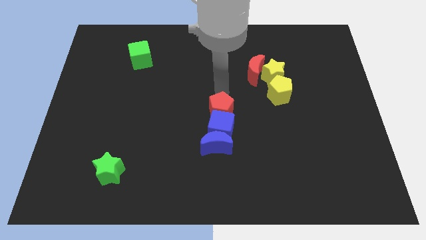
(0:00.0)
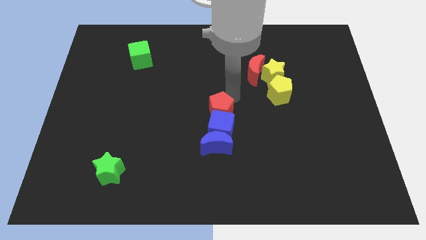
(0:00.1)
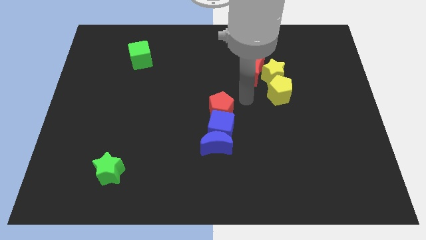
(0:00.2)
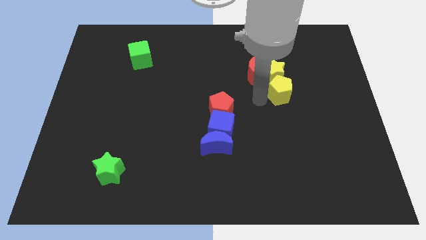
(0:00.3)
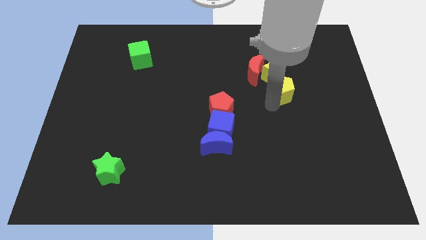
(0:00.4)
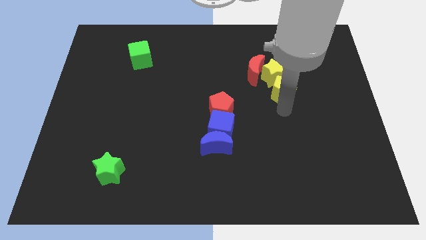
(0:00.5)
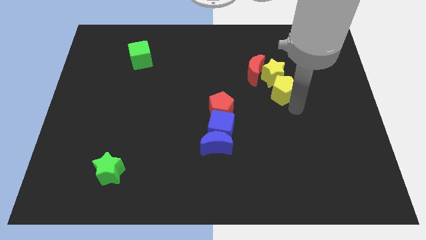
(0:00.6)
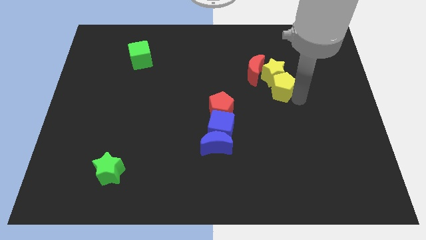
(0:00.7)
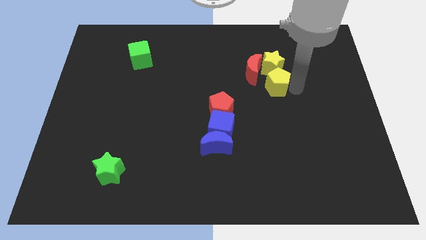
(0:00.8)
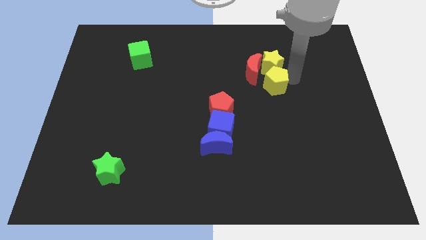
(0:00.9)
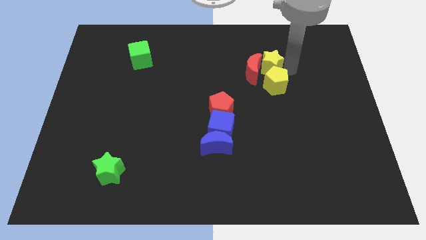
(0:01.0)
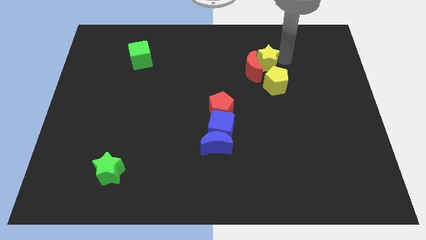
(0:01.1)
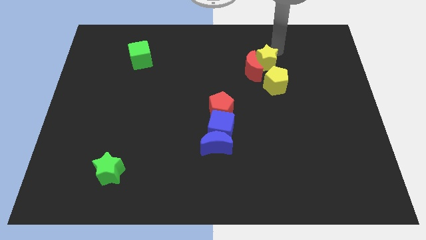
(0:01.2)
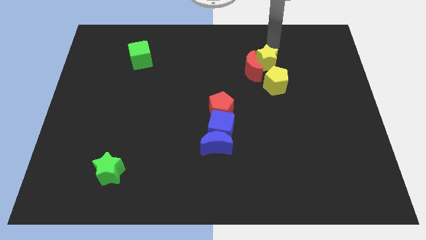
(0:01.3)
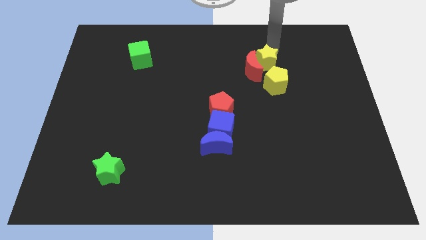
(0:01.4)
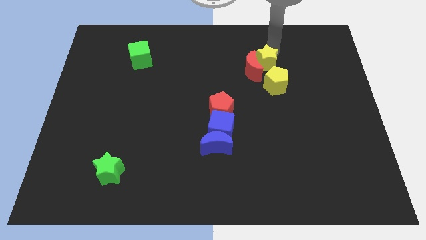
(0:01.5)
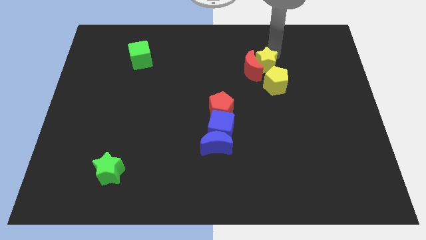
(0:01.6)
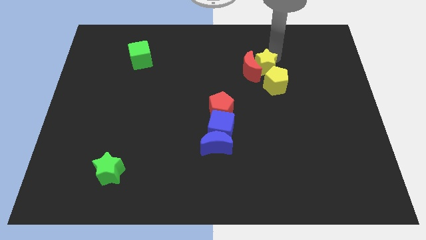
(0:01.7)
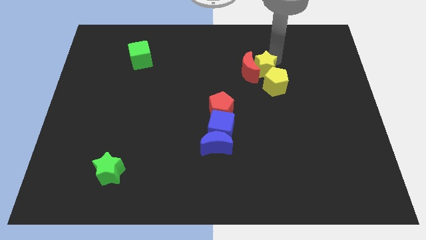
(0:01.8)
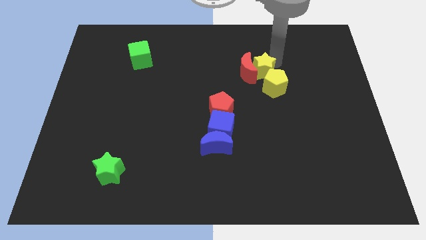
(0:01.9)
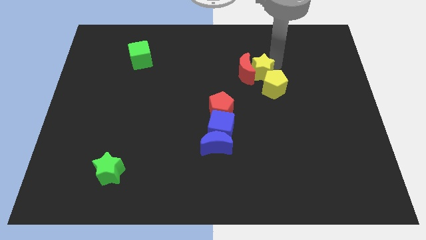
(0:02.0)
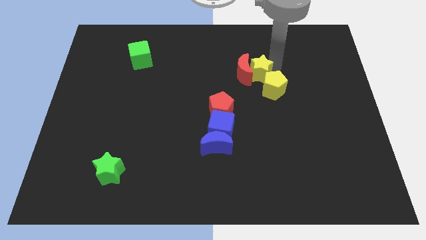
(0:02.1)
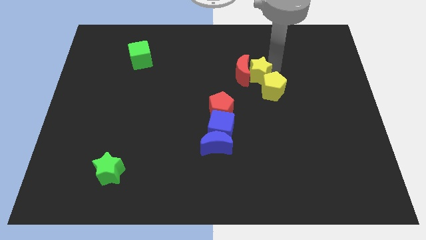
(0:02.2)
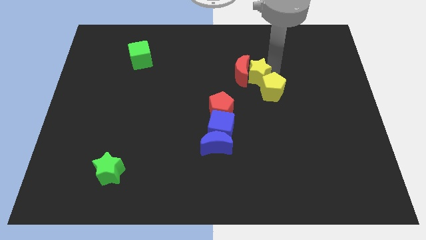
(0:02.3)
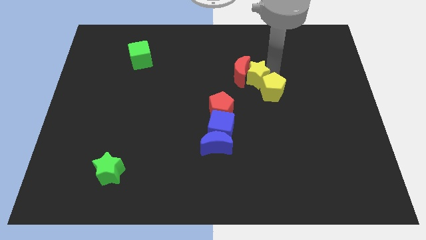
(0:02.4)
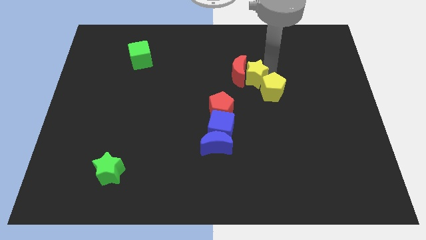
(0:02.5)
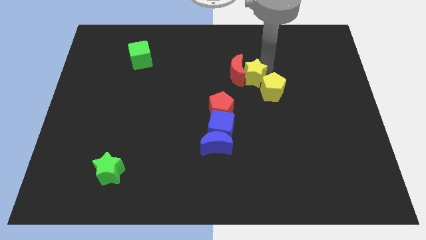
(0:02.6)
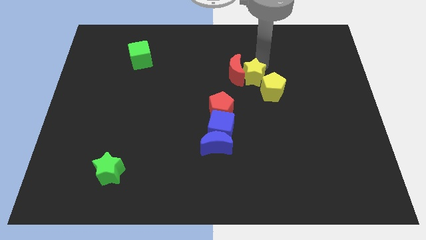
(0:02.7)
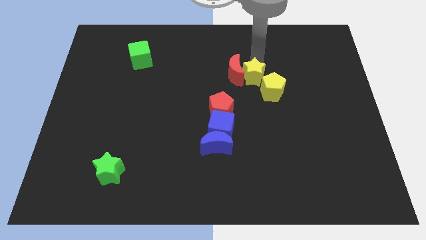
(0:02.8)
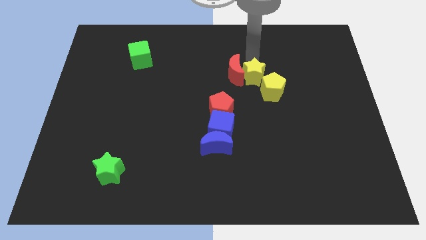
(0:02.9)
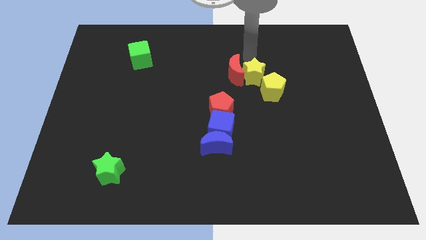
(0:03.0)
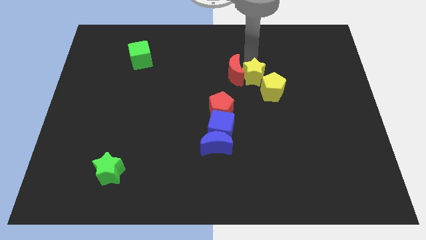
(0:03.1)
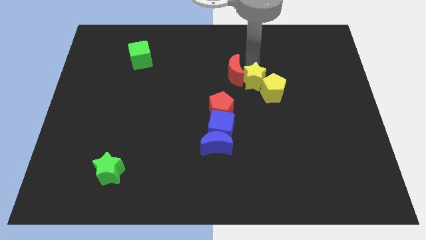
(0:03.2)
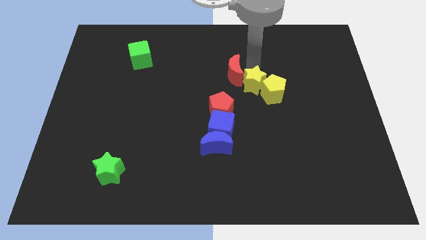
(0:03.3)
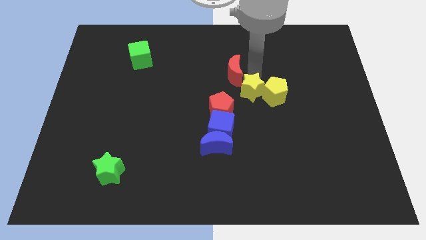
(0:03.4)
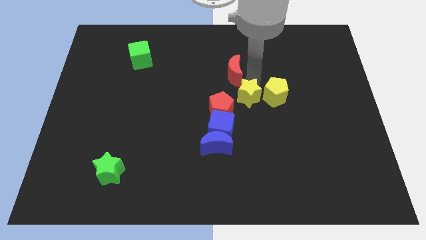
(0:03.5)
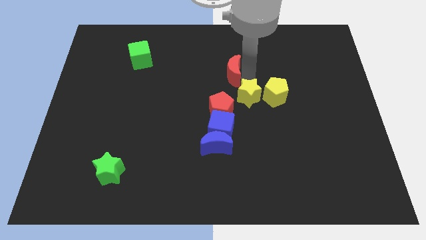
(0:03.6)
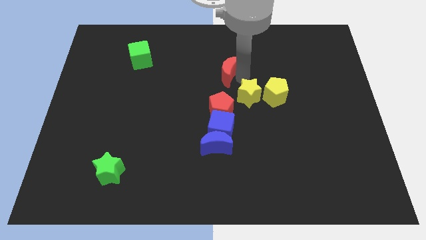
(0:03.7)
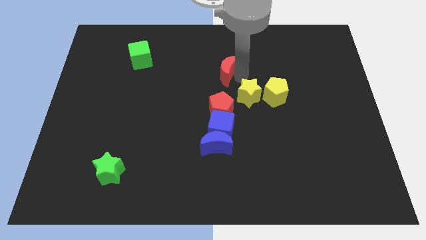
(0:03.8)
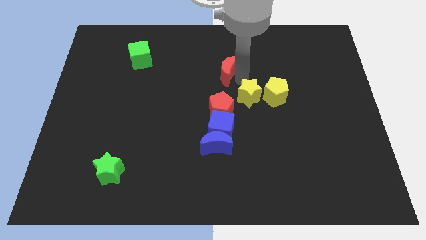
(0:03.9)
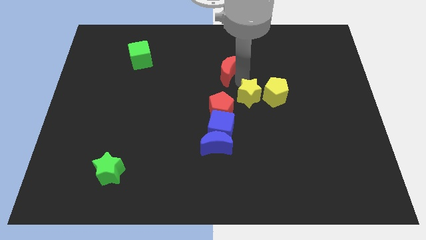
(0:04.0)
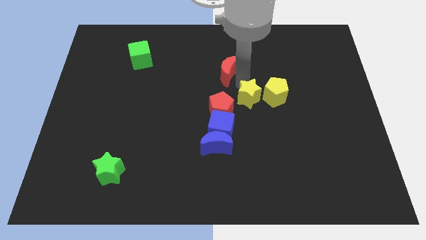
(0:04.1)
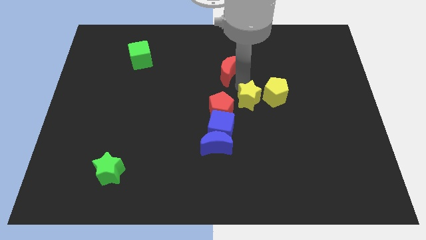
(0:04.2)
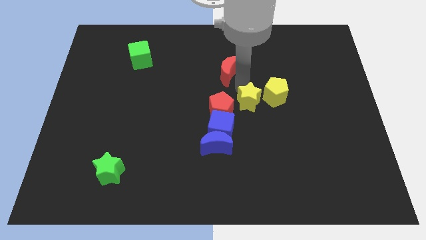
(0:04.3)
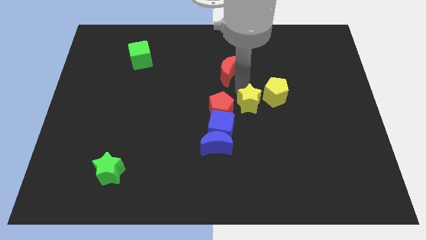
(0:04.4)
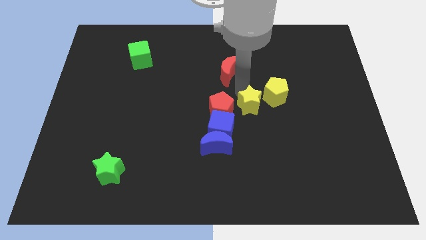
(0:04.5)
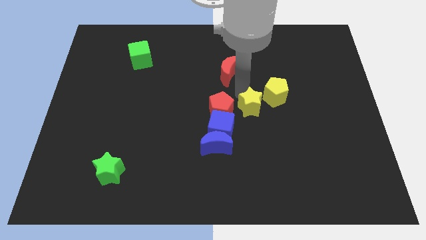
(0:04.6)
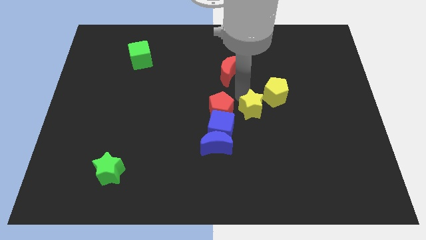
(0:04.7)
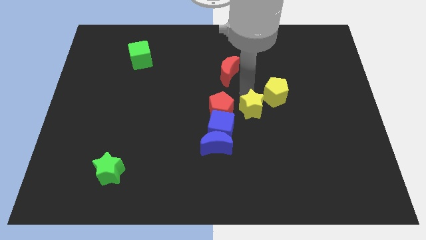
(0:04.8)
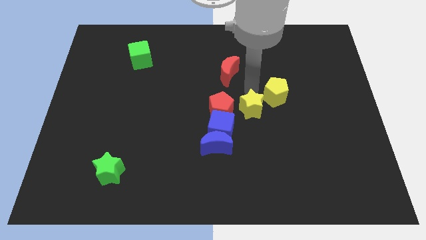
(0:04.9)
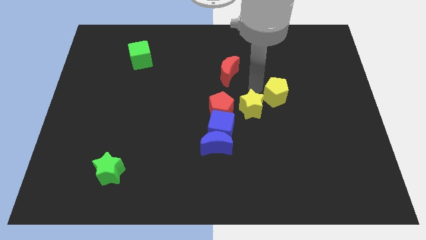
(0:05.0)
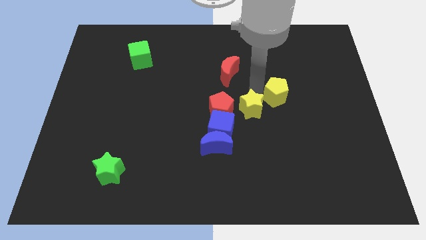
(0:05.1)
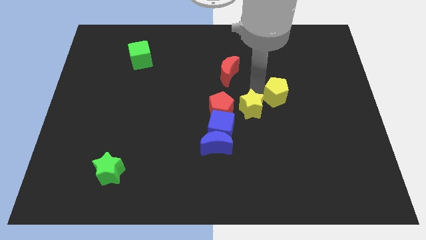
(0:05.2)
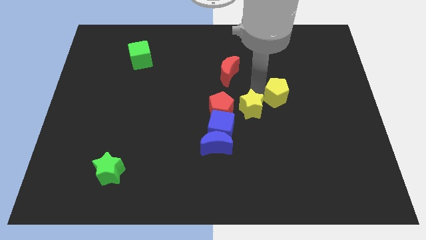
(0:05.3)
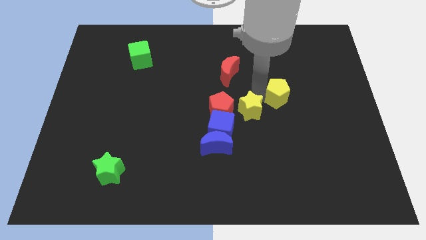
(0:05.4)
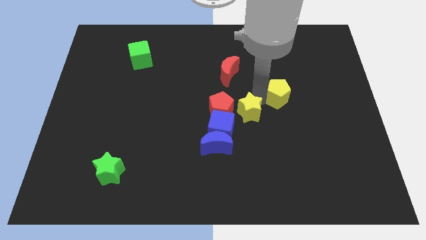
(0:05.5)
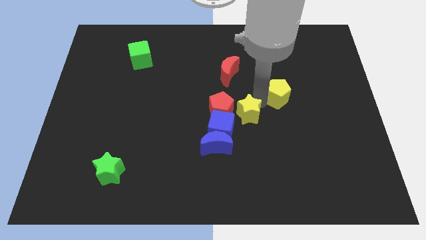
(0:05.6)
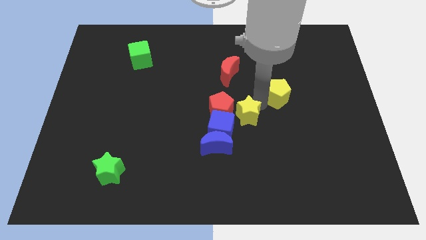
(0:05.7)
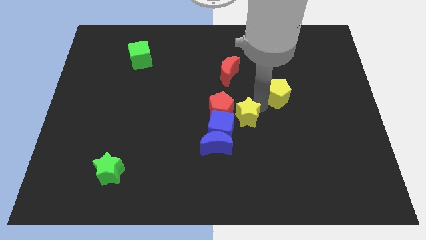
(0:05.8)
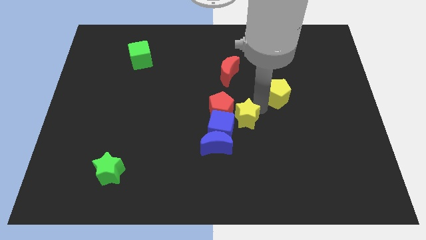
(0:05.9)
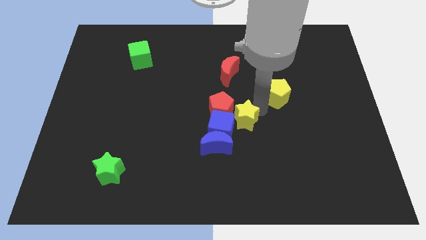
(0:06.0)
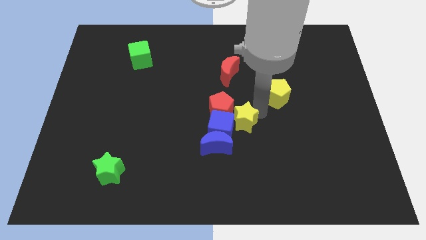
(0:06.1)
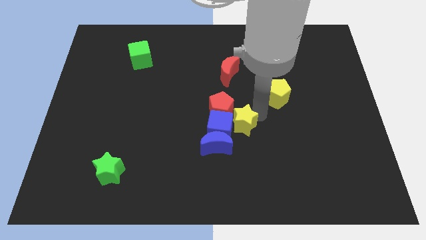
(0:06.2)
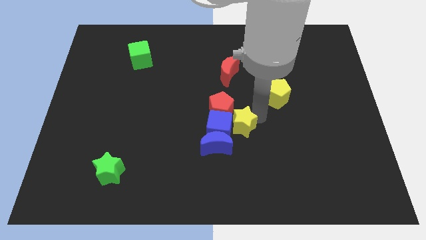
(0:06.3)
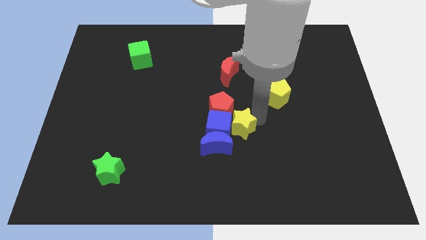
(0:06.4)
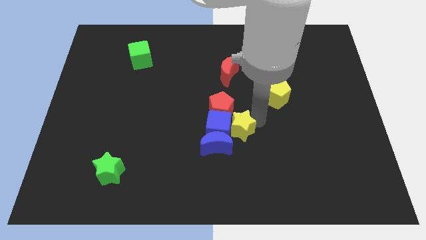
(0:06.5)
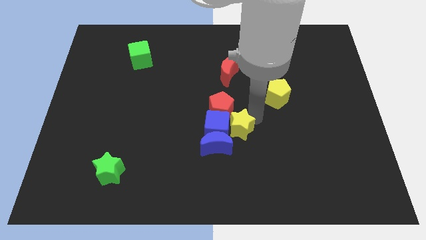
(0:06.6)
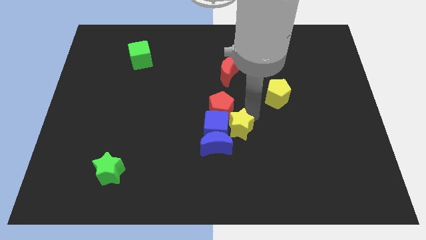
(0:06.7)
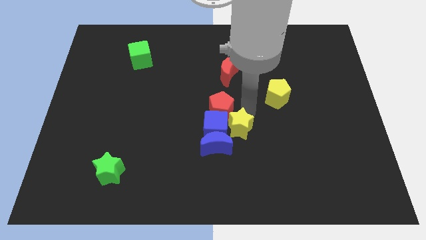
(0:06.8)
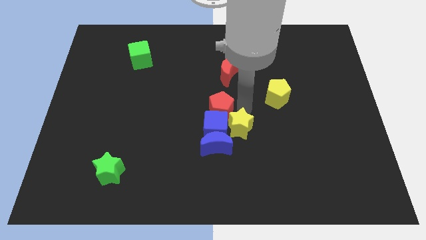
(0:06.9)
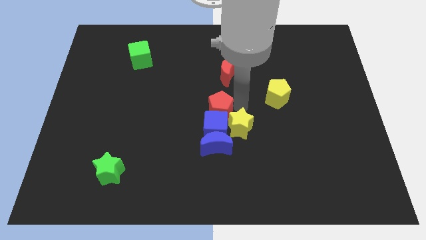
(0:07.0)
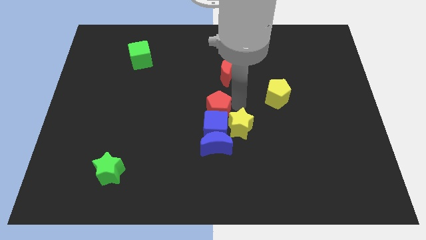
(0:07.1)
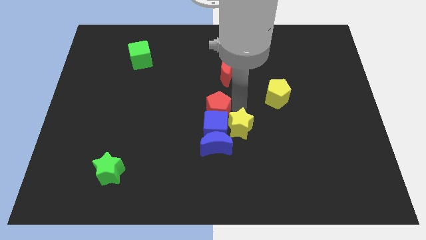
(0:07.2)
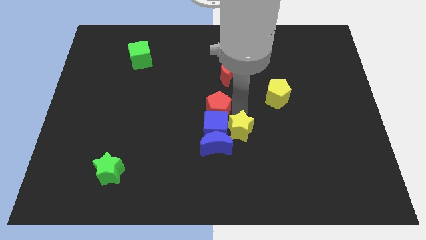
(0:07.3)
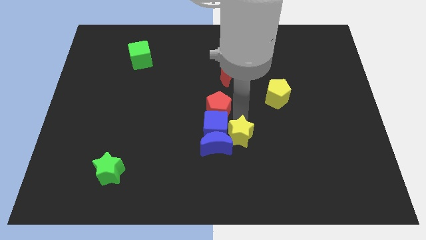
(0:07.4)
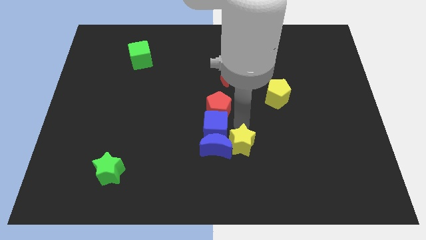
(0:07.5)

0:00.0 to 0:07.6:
move the yellow star to the bottom right of the blue moon
